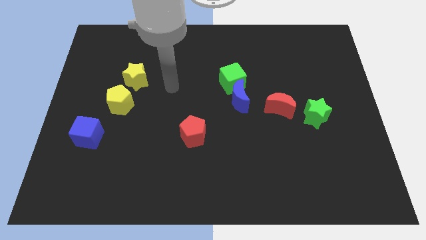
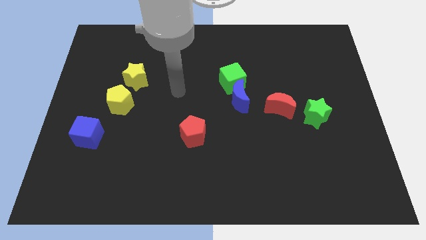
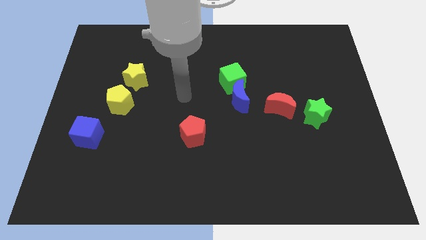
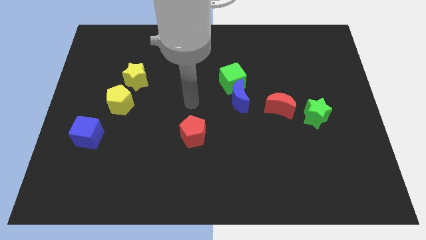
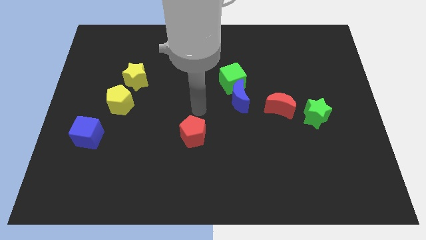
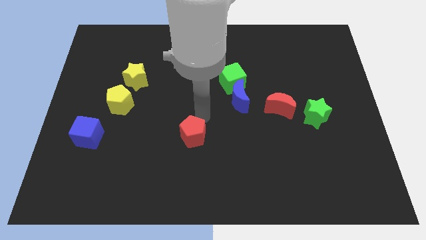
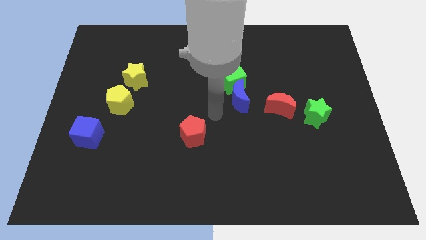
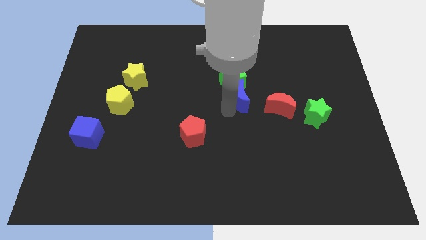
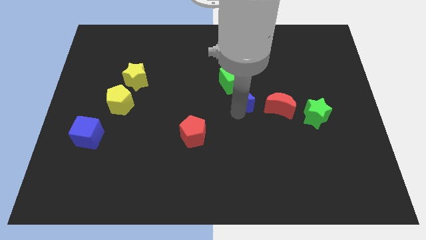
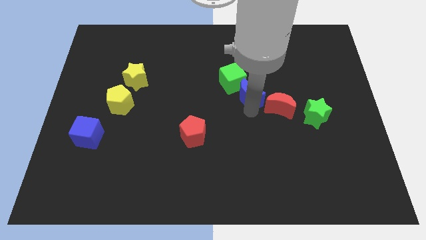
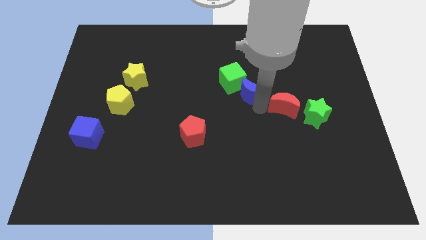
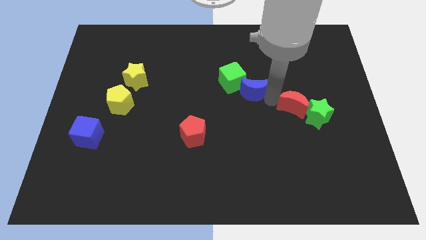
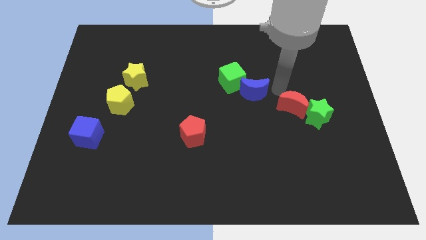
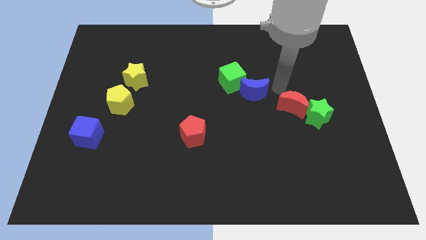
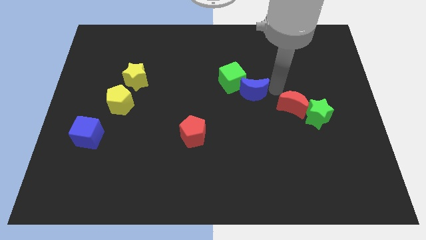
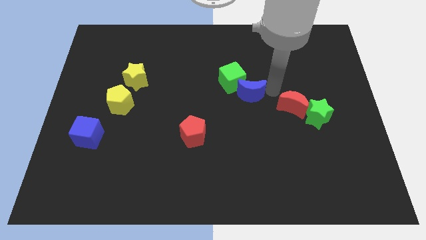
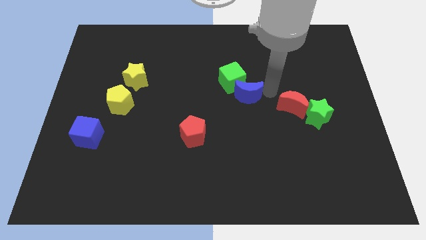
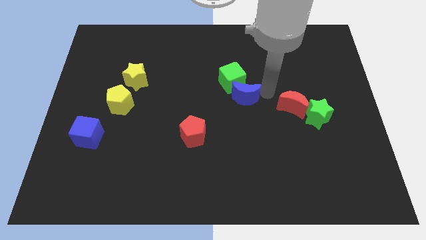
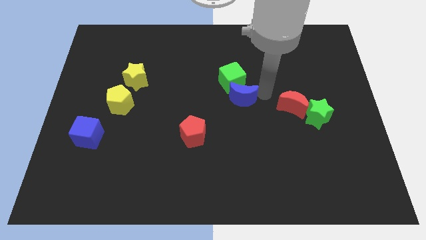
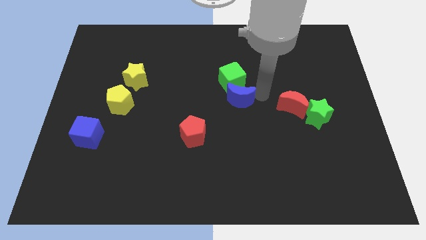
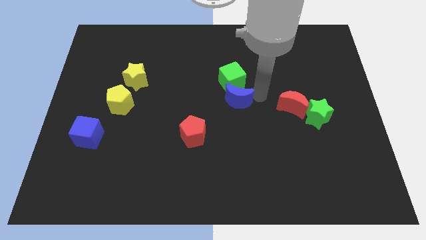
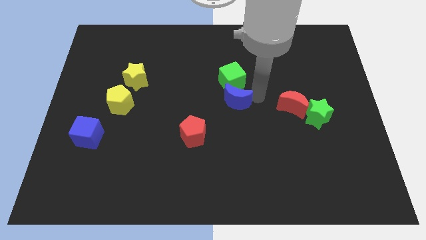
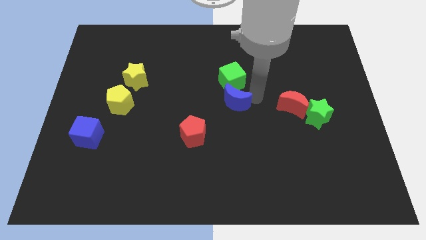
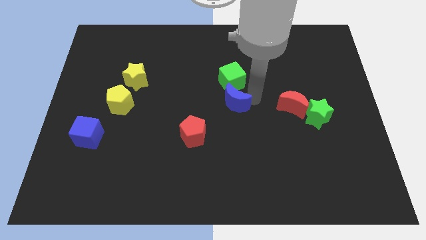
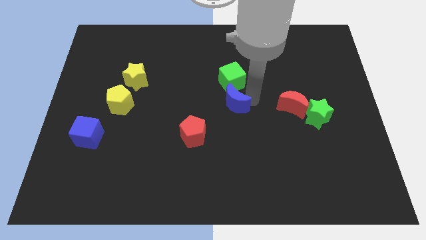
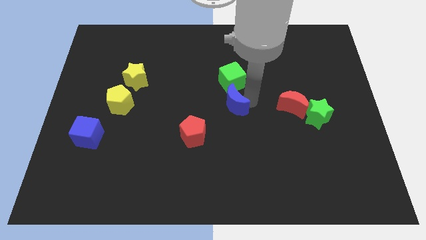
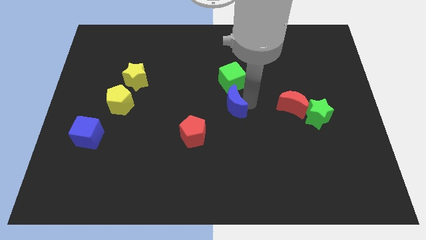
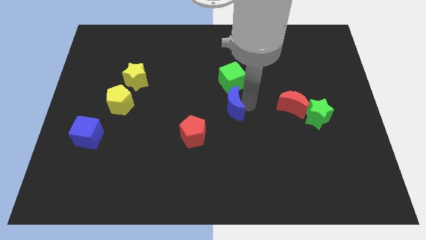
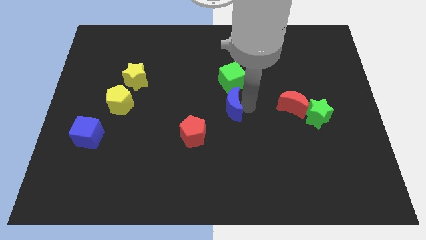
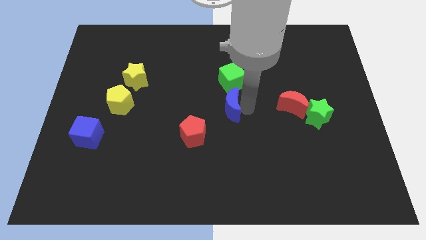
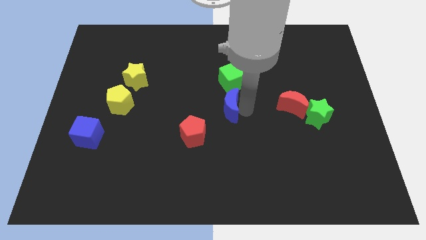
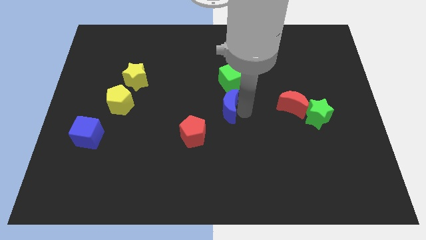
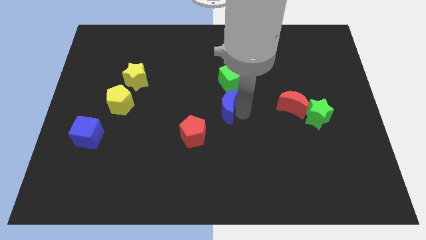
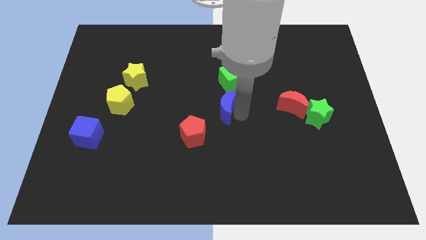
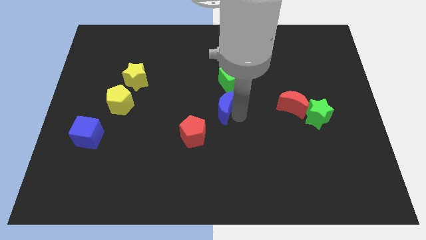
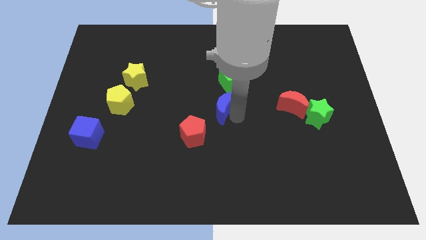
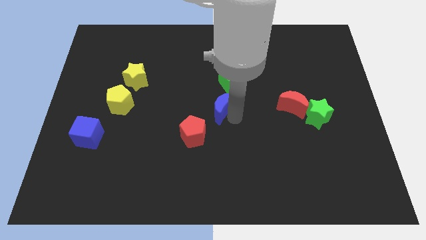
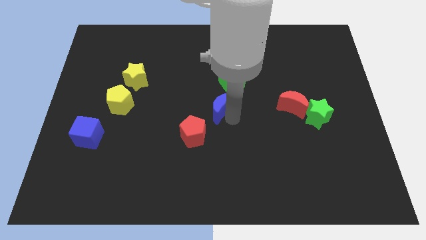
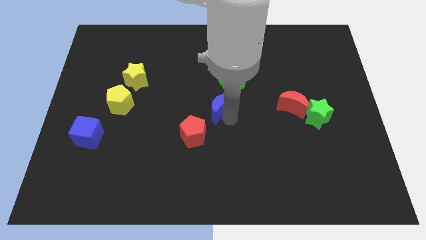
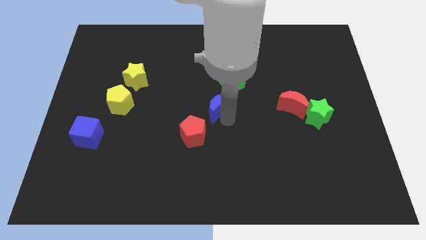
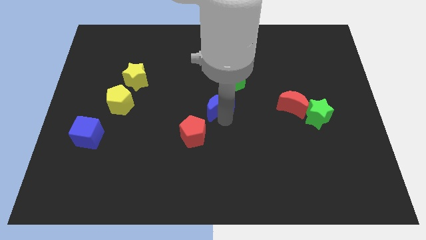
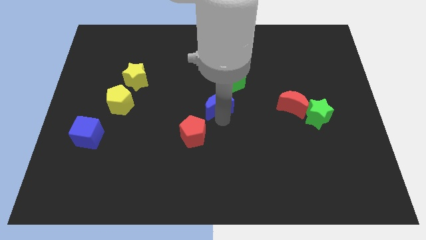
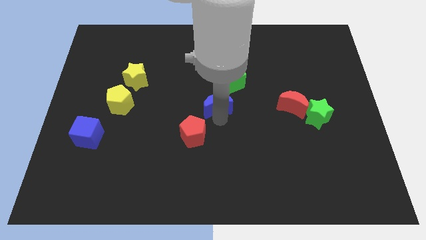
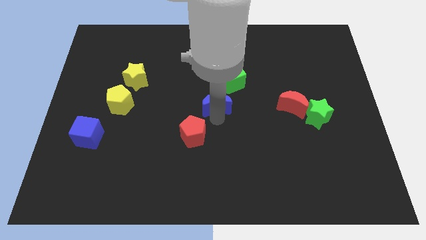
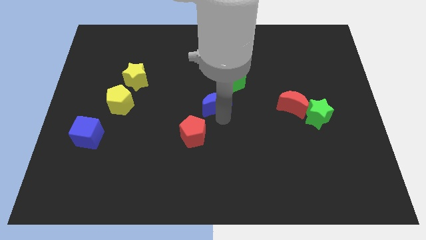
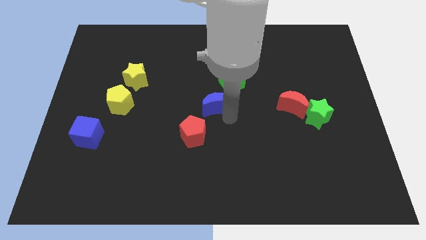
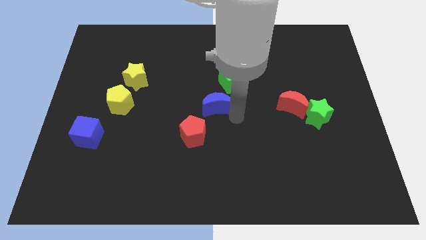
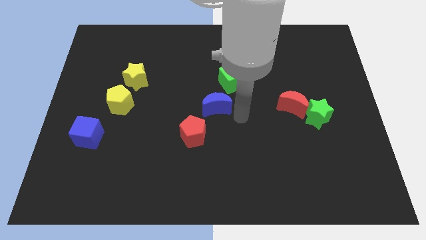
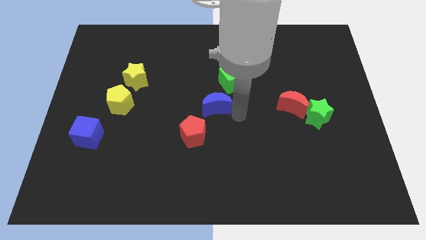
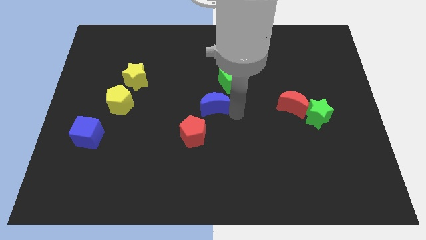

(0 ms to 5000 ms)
move the blue moon to the top of the red pentagon

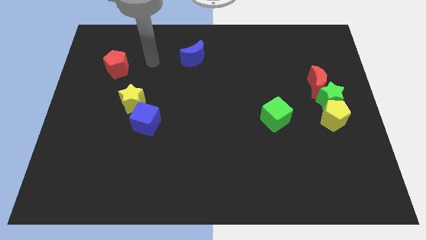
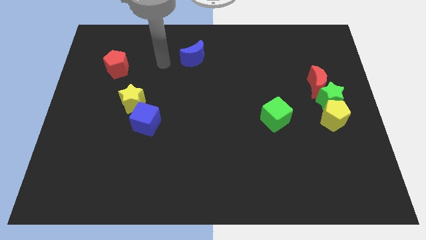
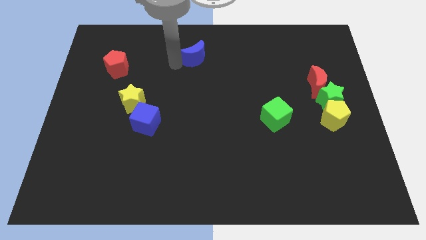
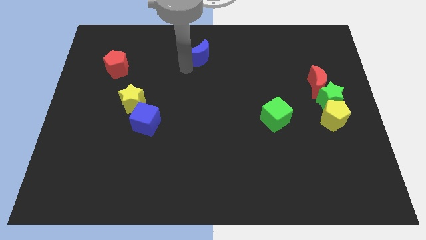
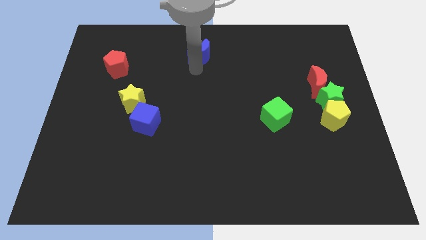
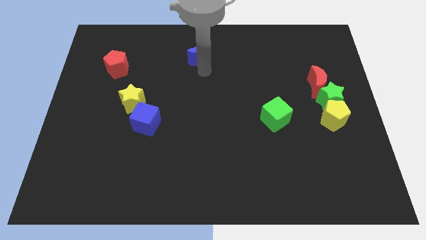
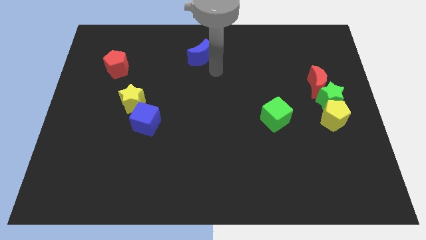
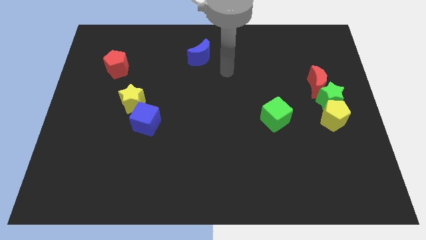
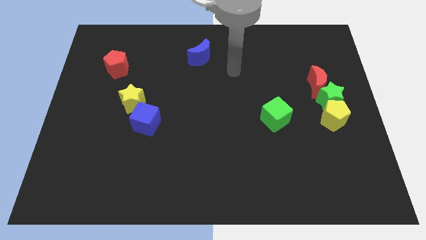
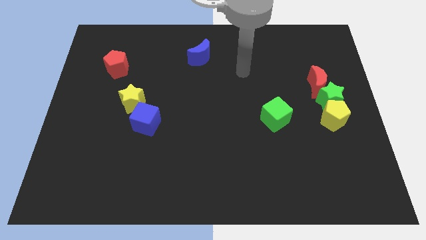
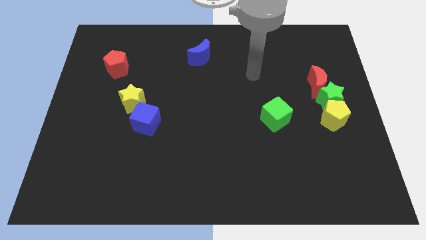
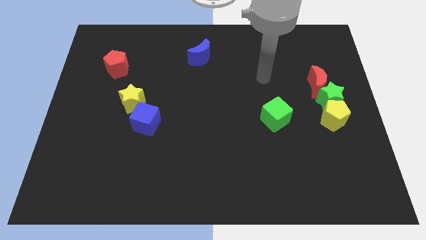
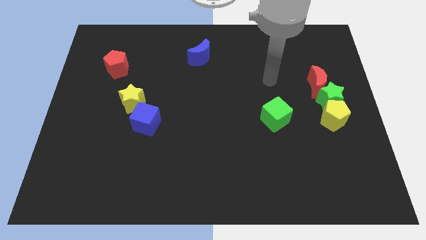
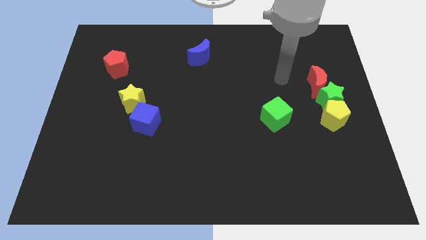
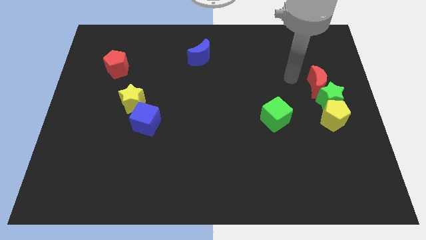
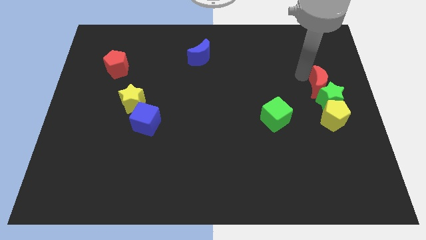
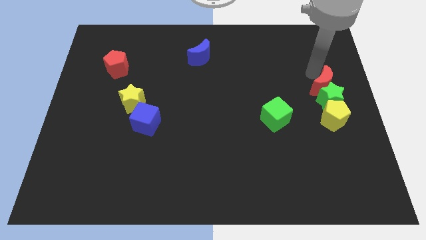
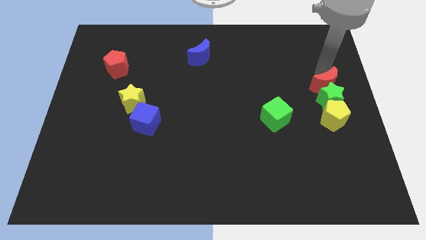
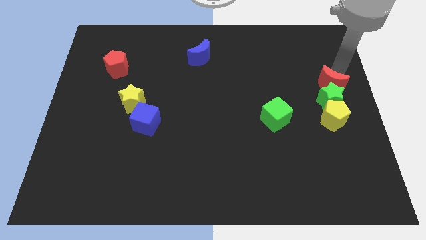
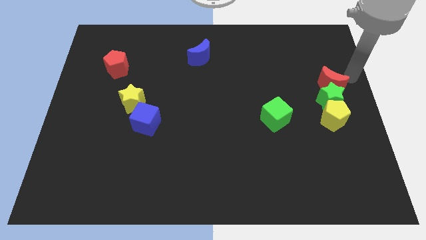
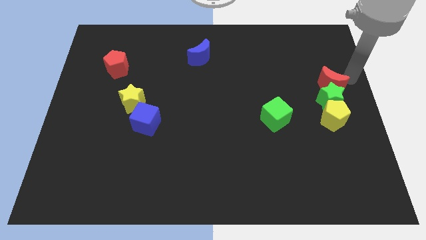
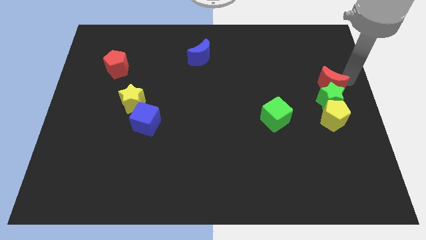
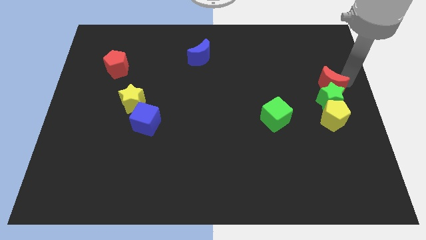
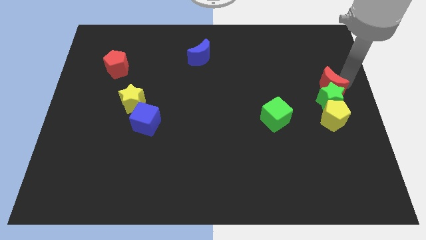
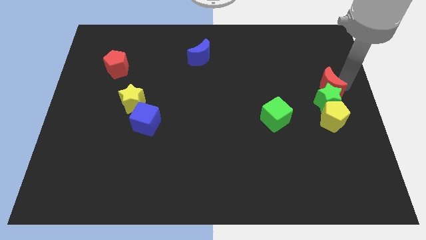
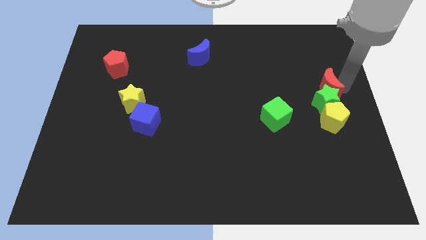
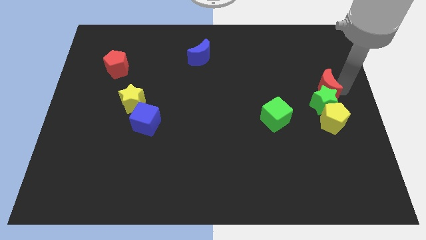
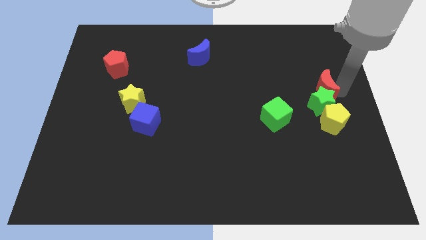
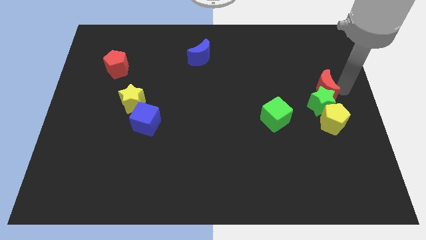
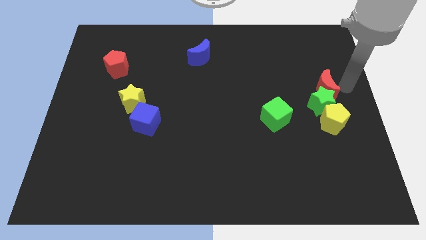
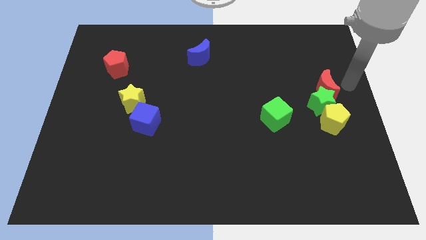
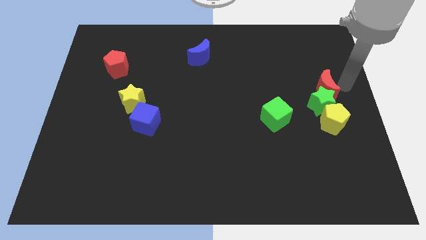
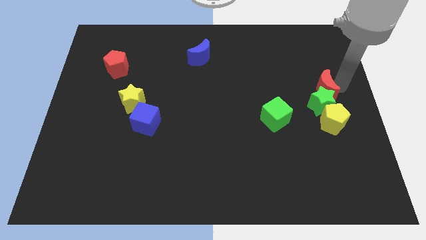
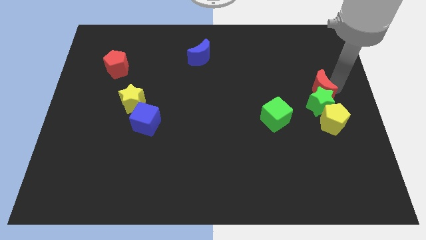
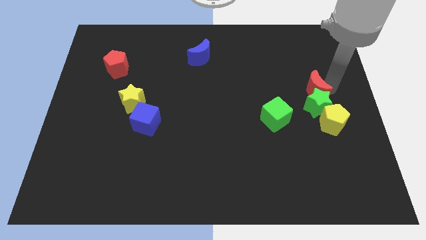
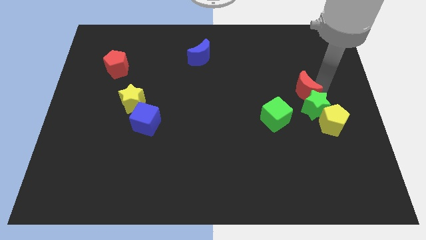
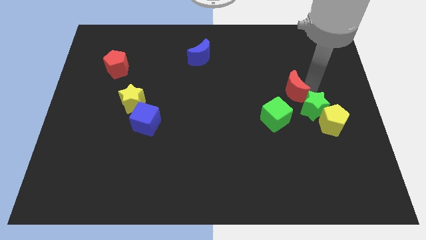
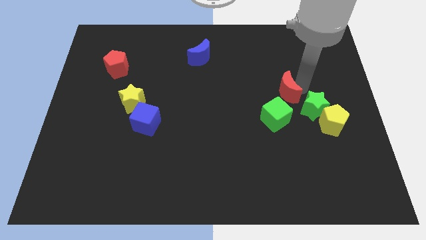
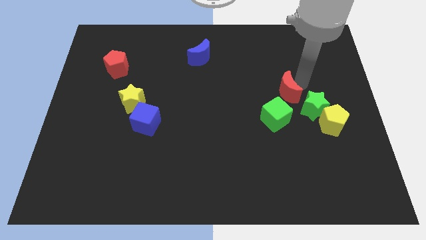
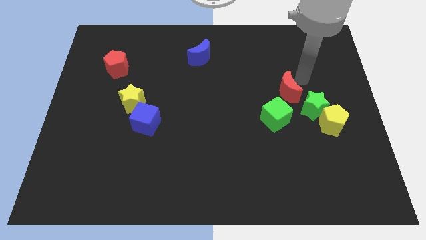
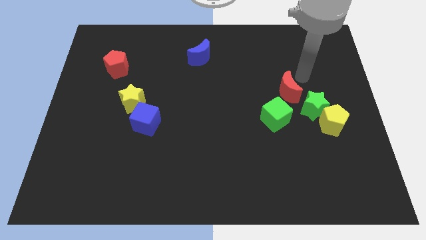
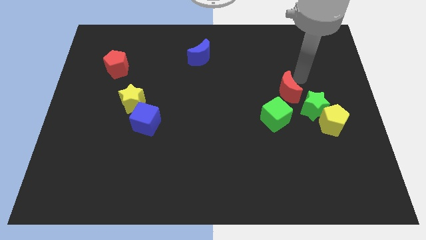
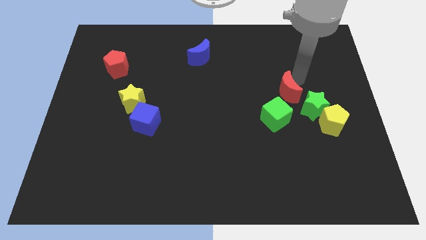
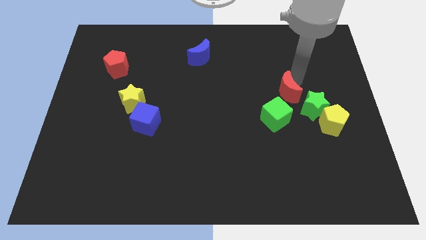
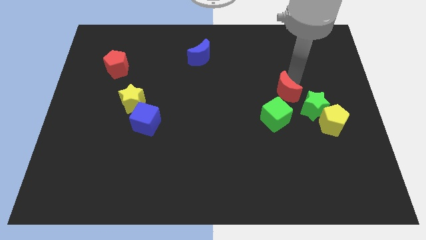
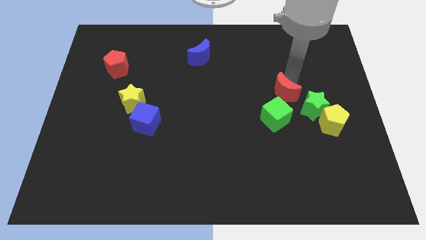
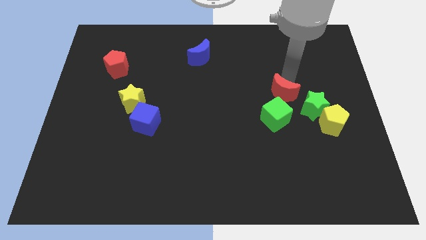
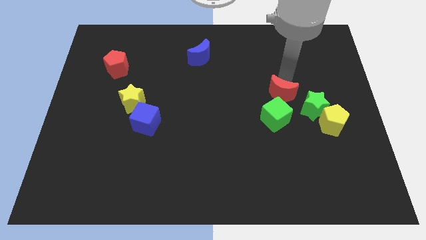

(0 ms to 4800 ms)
slide the red moon left of the green star
